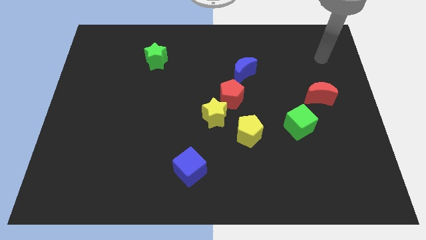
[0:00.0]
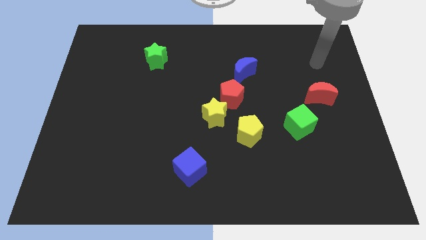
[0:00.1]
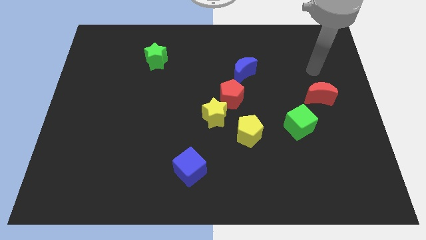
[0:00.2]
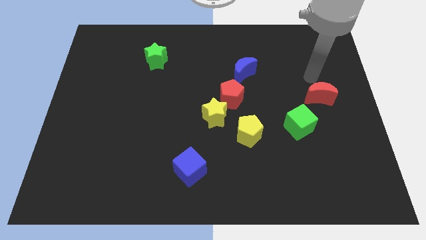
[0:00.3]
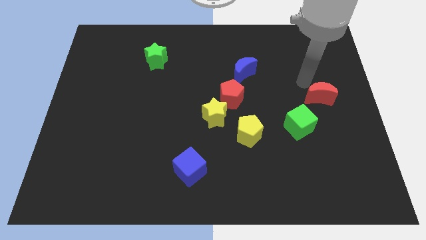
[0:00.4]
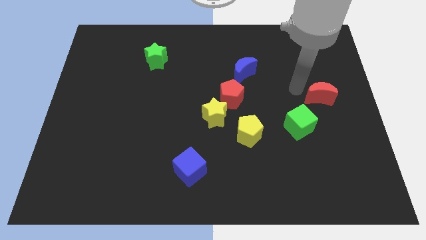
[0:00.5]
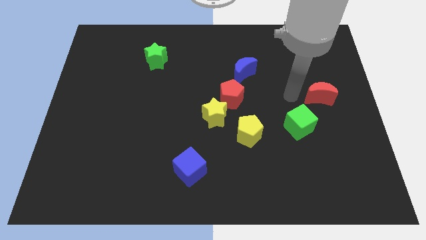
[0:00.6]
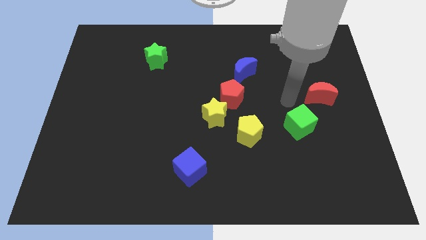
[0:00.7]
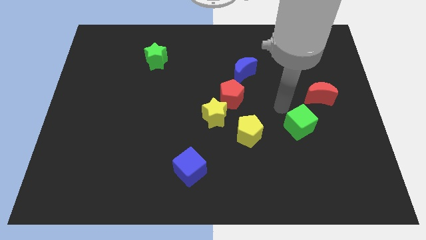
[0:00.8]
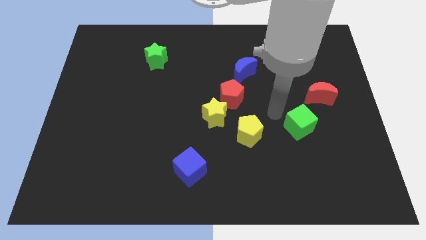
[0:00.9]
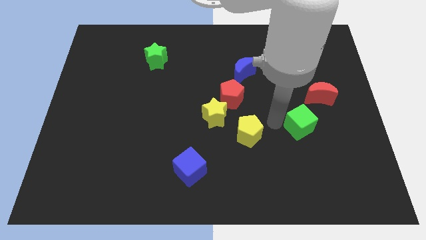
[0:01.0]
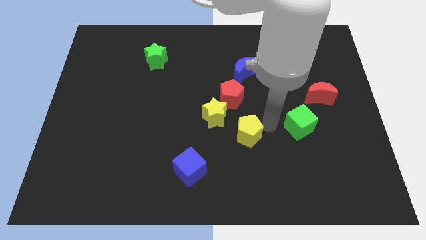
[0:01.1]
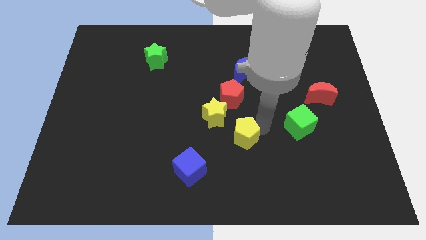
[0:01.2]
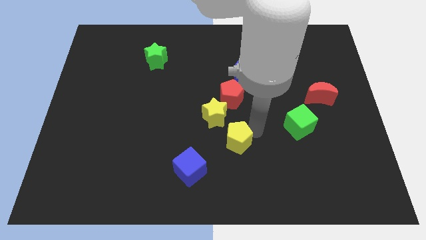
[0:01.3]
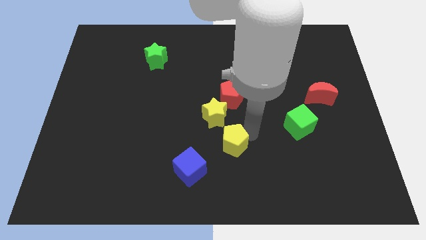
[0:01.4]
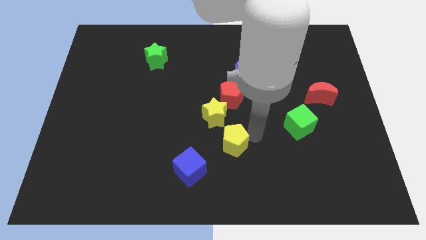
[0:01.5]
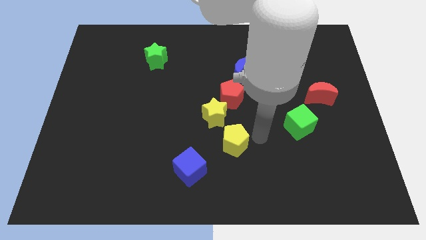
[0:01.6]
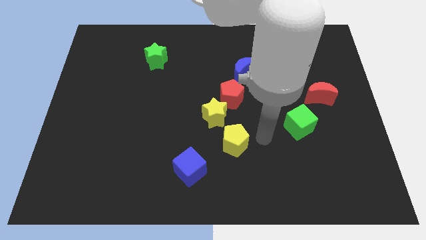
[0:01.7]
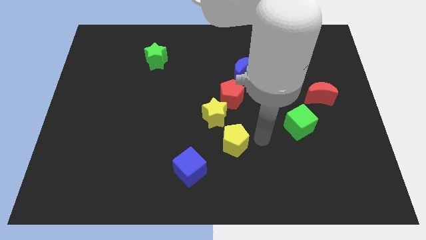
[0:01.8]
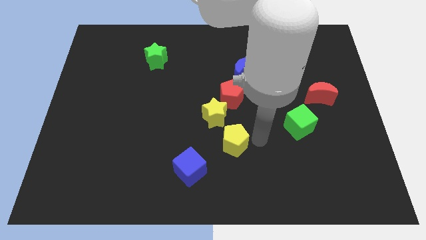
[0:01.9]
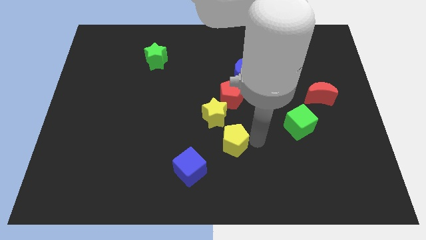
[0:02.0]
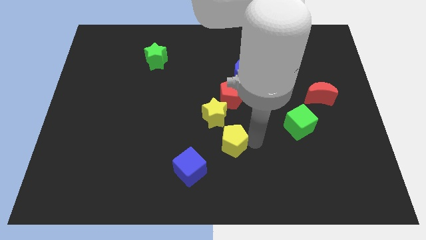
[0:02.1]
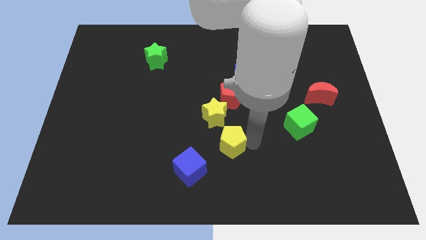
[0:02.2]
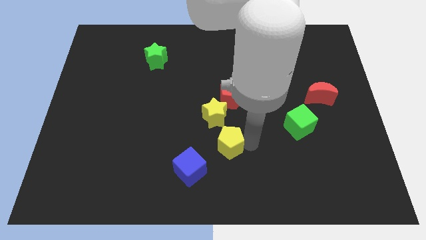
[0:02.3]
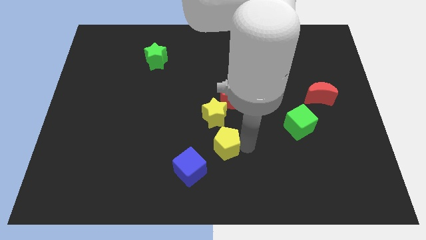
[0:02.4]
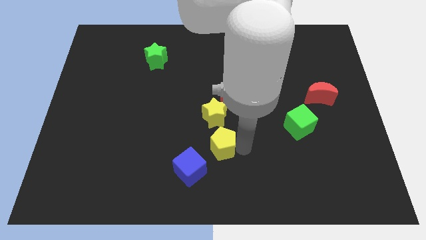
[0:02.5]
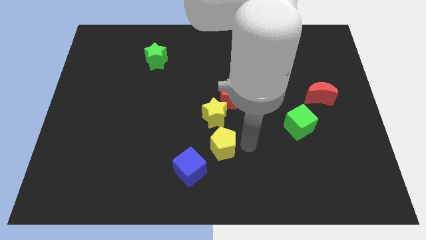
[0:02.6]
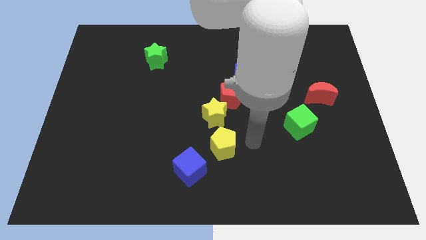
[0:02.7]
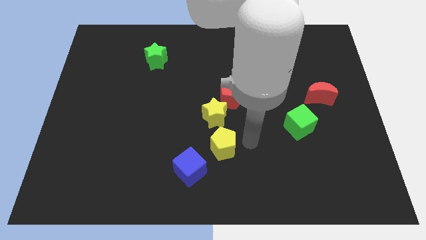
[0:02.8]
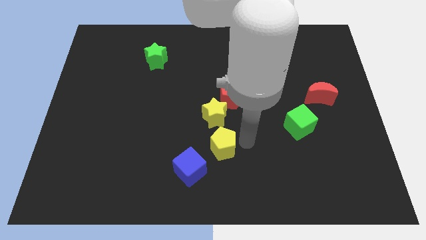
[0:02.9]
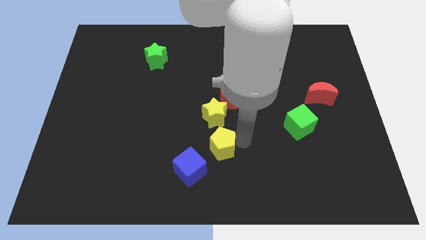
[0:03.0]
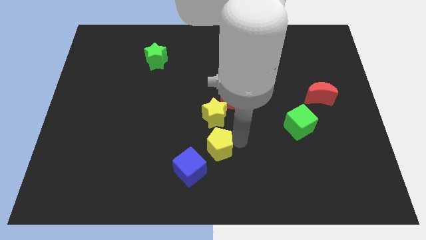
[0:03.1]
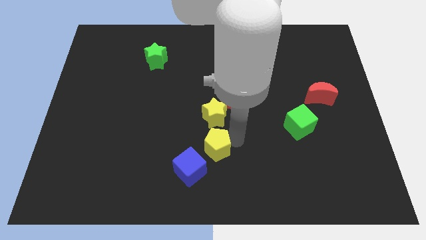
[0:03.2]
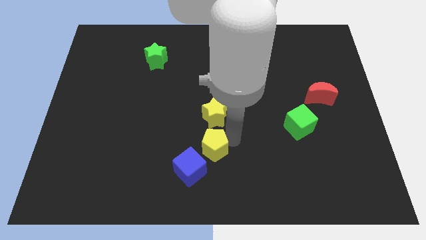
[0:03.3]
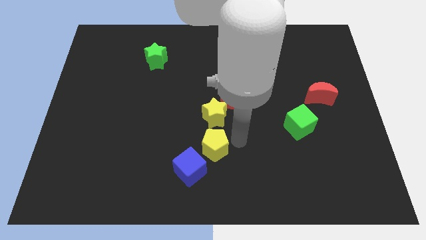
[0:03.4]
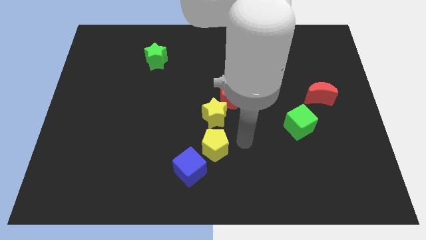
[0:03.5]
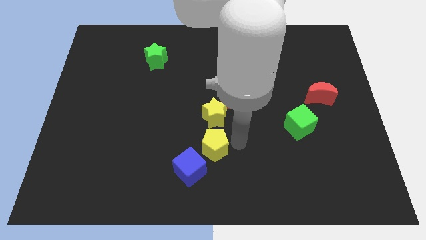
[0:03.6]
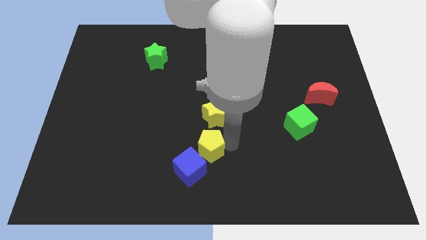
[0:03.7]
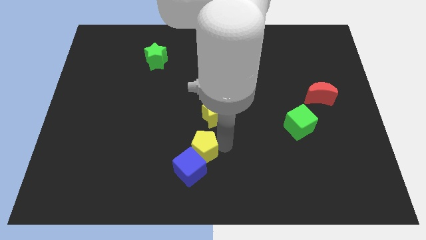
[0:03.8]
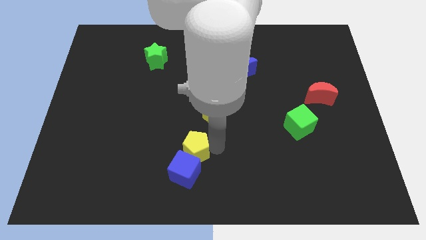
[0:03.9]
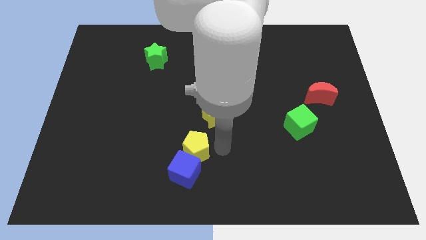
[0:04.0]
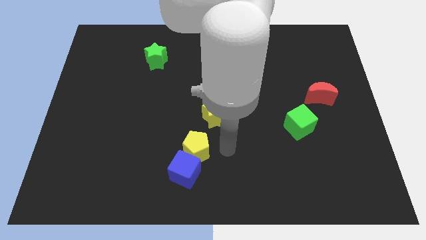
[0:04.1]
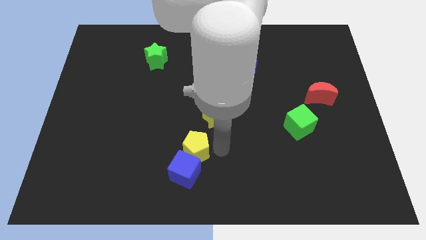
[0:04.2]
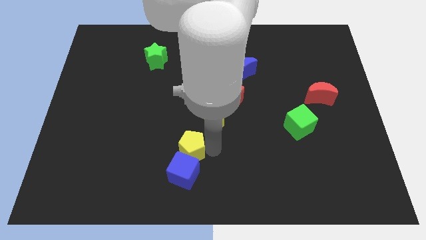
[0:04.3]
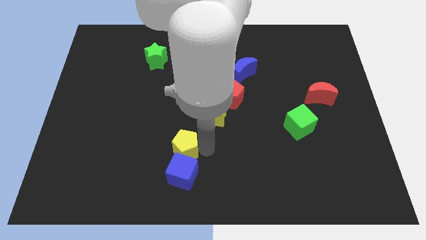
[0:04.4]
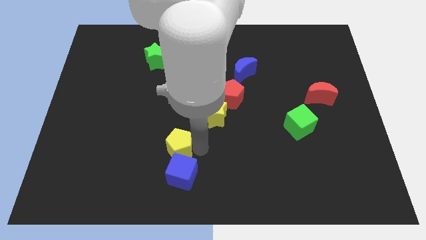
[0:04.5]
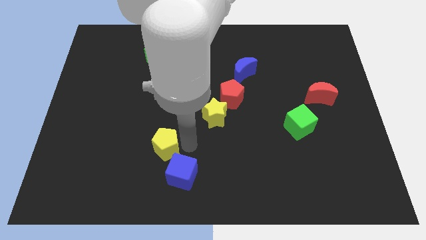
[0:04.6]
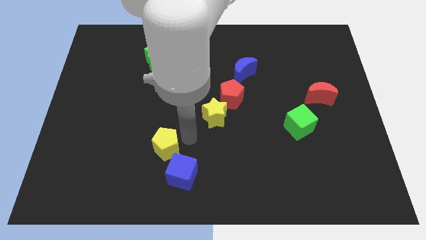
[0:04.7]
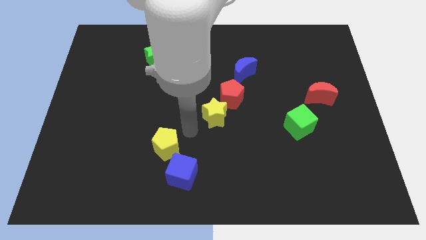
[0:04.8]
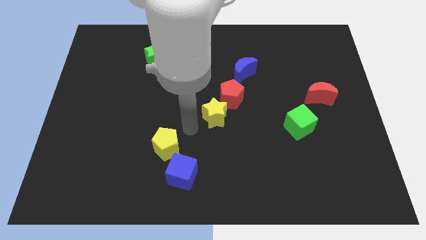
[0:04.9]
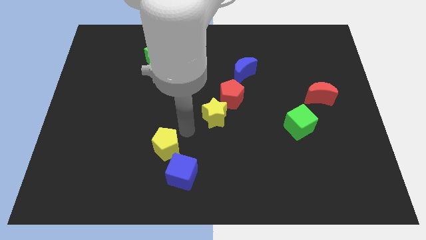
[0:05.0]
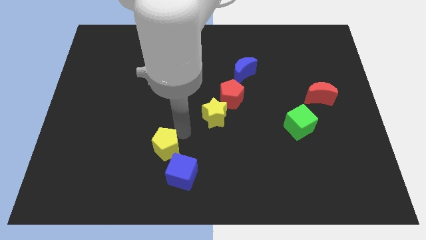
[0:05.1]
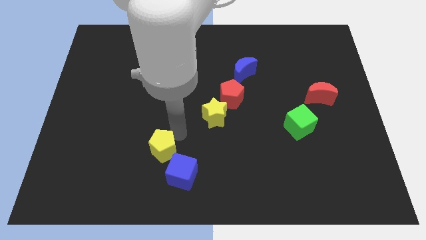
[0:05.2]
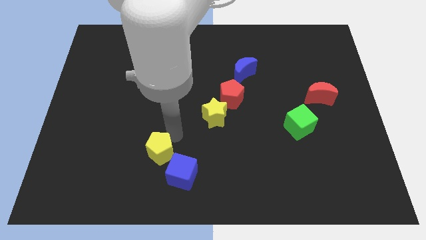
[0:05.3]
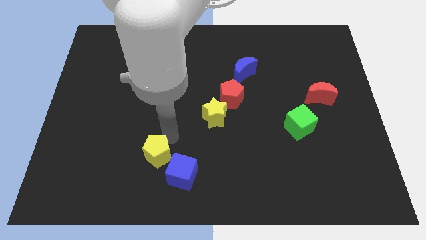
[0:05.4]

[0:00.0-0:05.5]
push the yellow pentagon just left of the blue cube

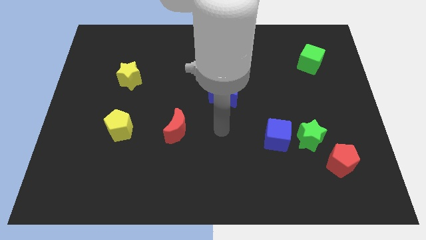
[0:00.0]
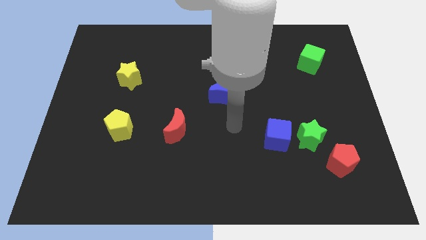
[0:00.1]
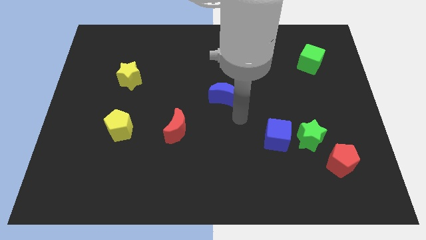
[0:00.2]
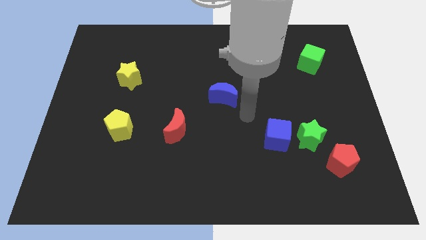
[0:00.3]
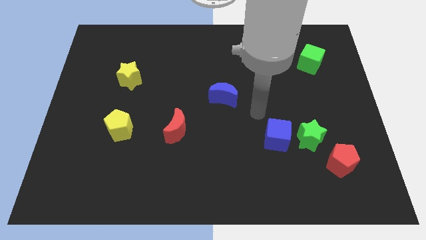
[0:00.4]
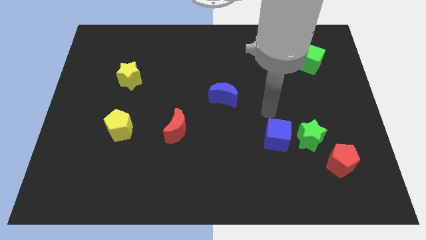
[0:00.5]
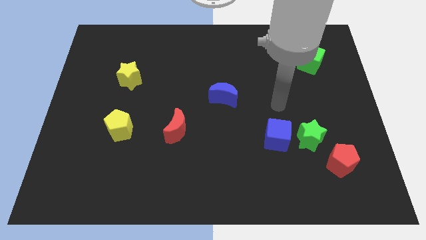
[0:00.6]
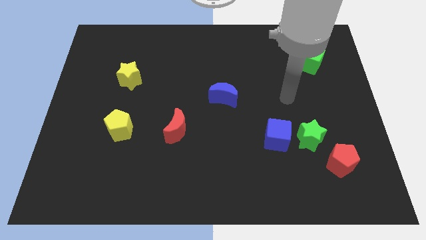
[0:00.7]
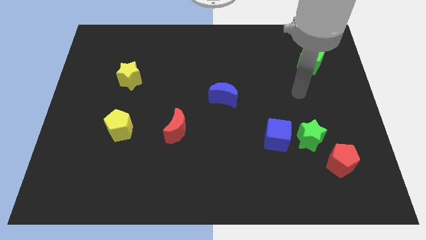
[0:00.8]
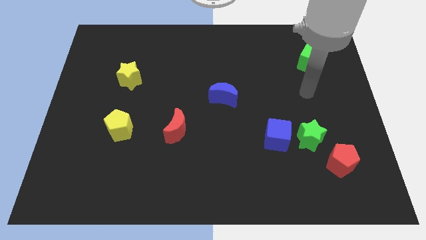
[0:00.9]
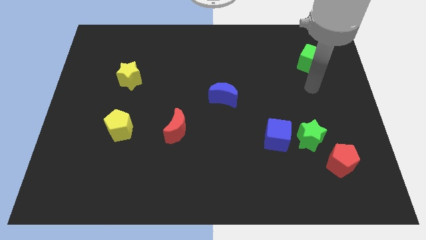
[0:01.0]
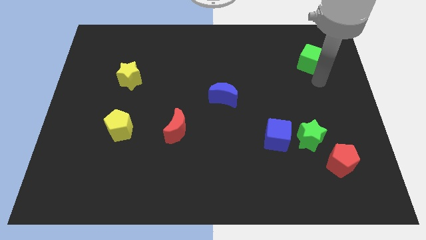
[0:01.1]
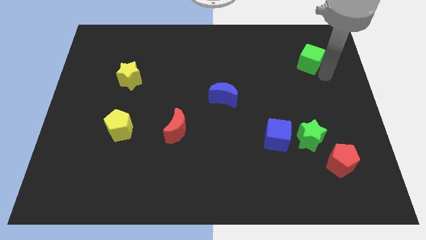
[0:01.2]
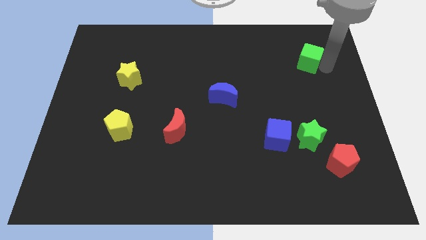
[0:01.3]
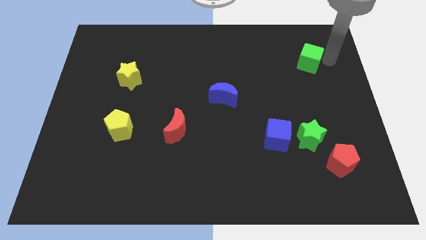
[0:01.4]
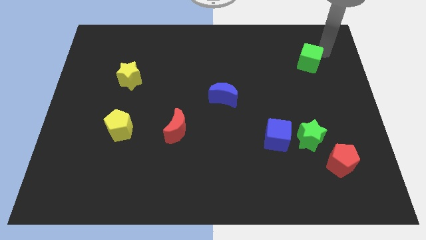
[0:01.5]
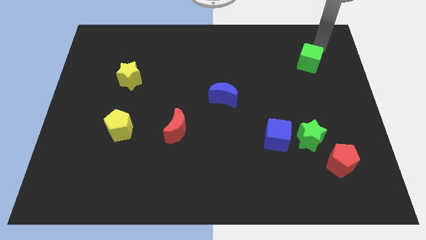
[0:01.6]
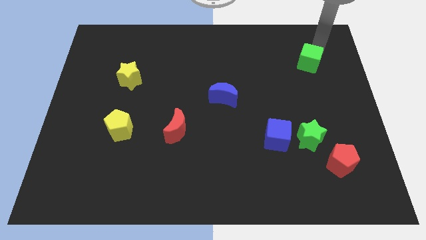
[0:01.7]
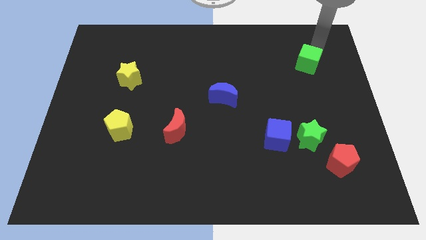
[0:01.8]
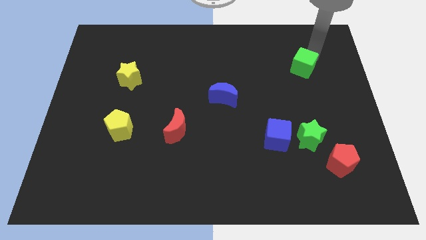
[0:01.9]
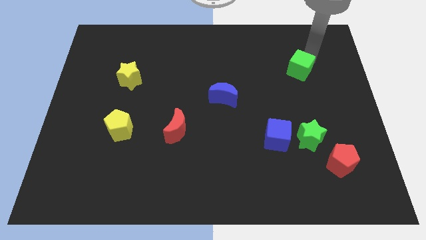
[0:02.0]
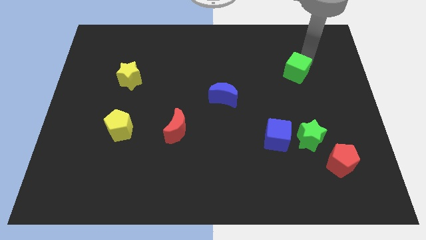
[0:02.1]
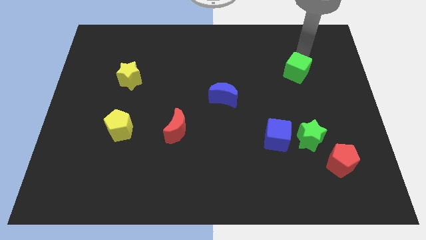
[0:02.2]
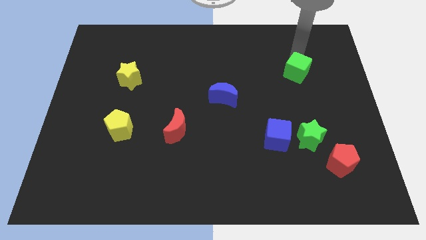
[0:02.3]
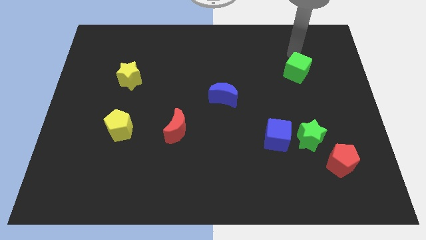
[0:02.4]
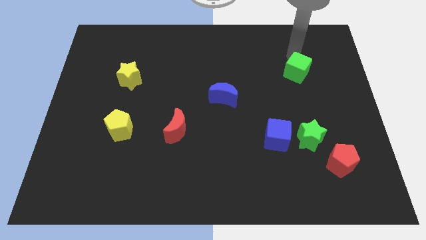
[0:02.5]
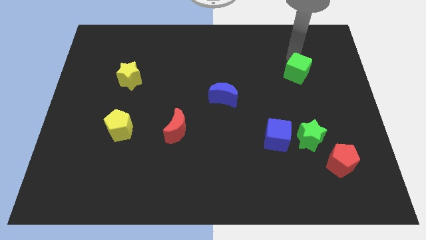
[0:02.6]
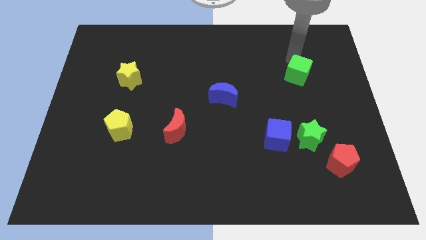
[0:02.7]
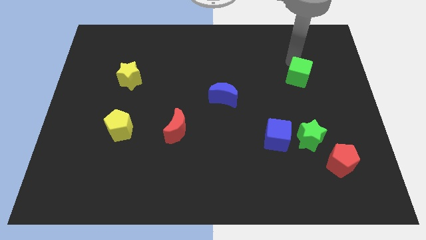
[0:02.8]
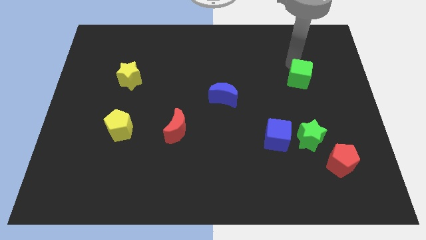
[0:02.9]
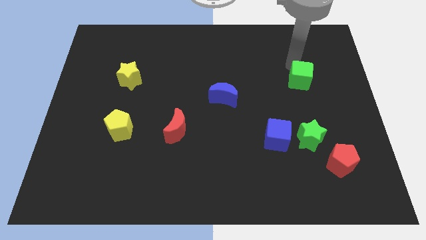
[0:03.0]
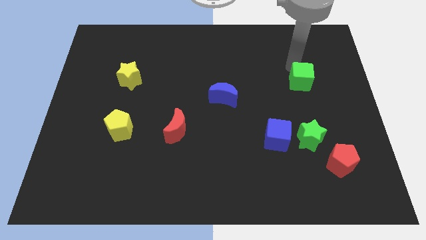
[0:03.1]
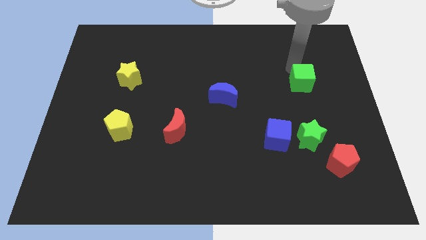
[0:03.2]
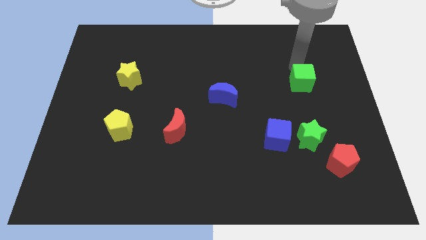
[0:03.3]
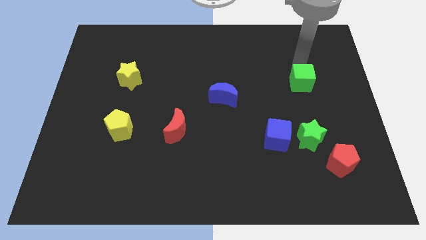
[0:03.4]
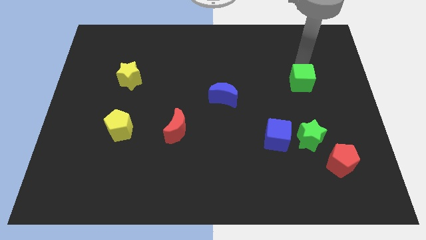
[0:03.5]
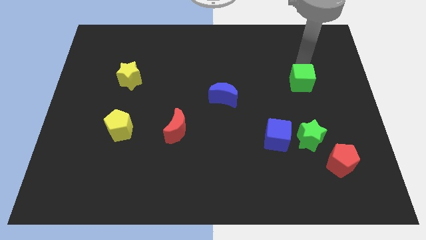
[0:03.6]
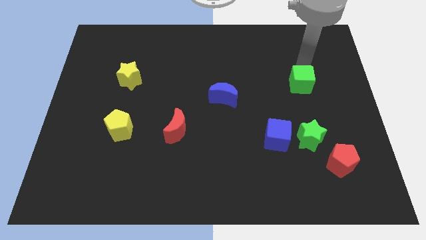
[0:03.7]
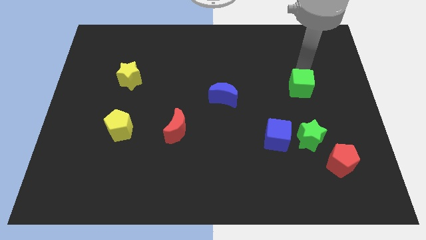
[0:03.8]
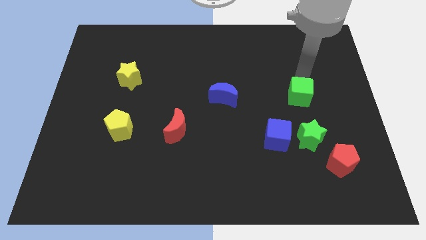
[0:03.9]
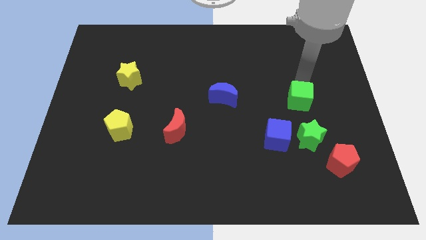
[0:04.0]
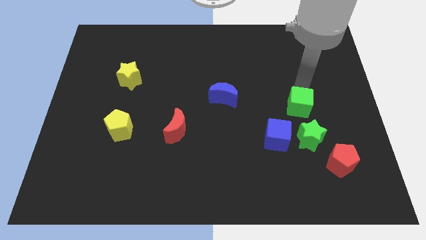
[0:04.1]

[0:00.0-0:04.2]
slide the green cube diagonally up and to the right of the blue cube
